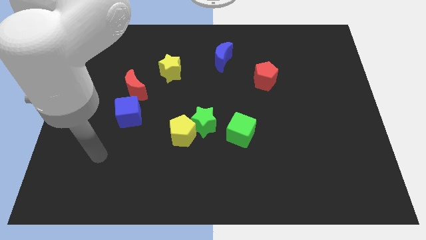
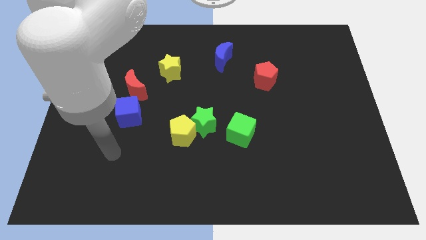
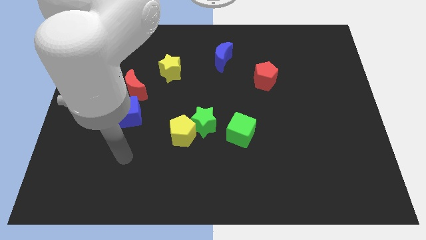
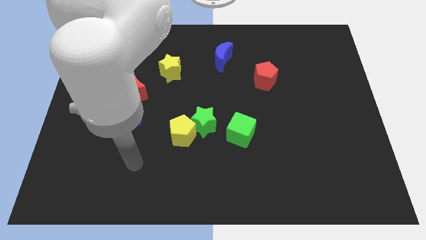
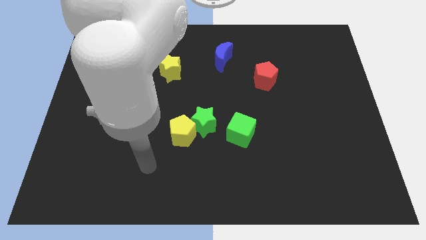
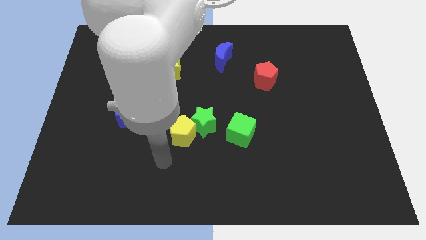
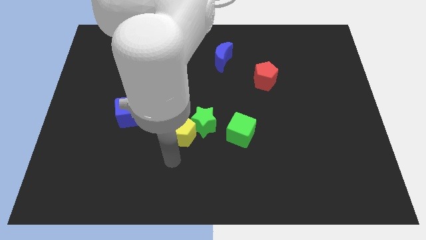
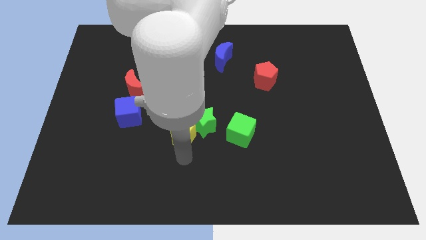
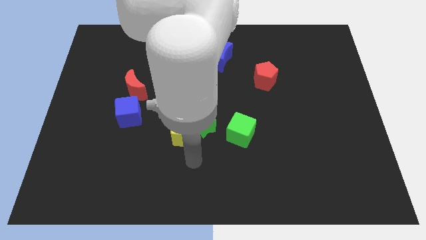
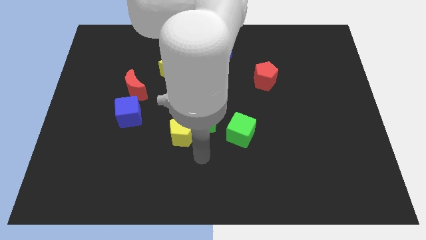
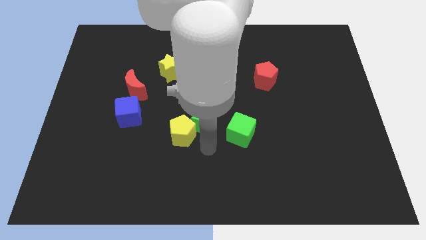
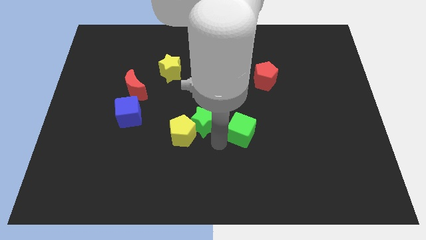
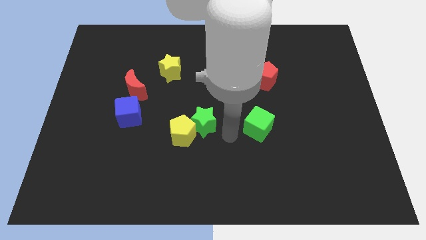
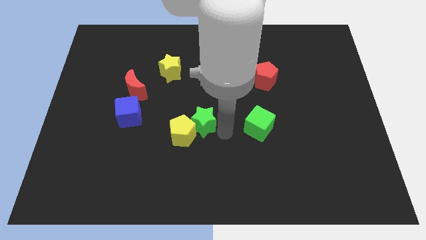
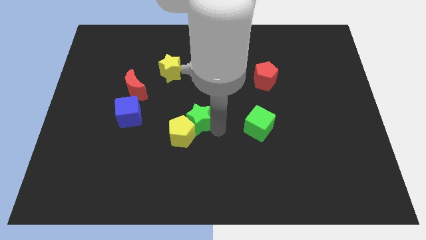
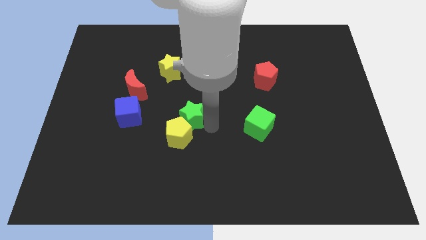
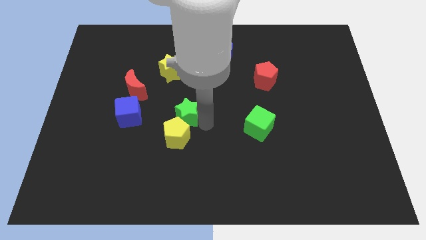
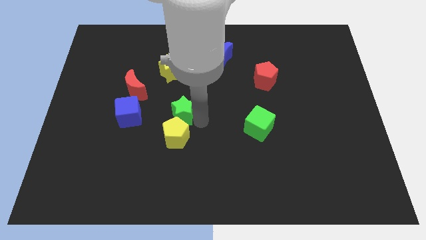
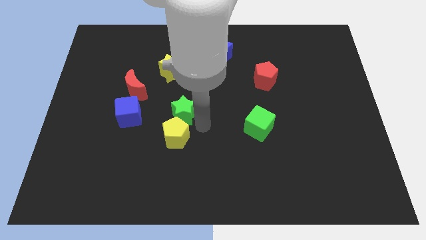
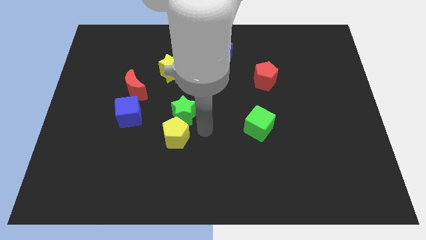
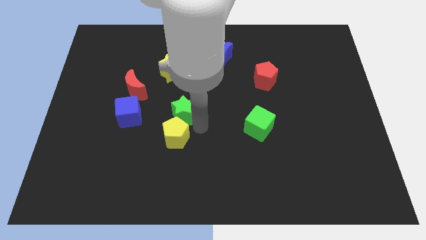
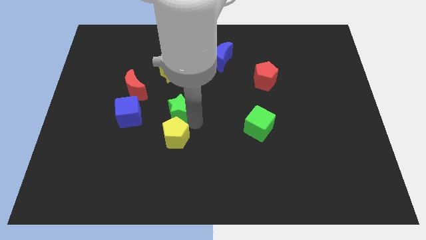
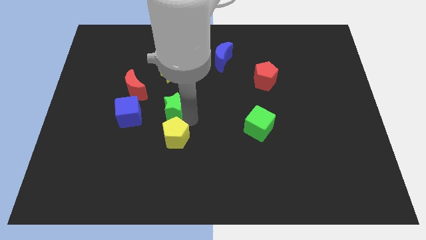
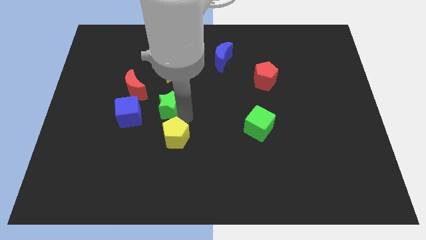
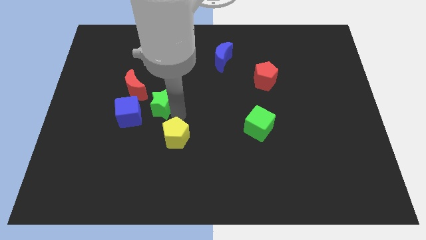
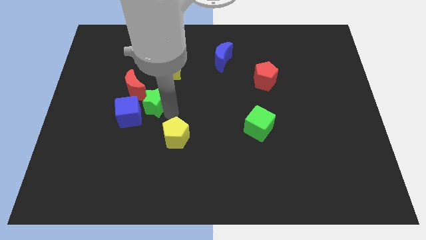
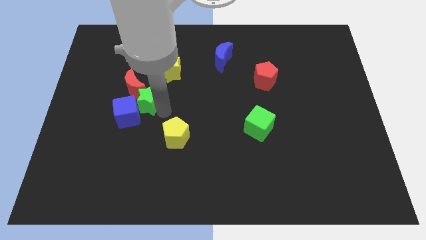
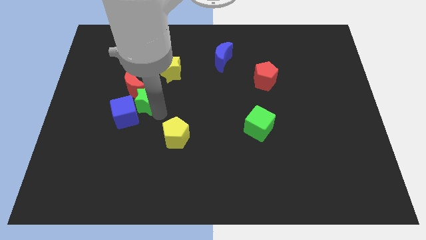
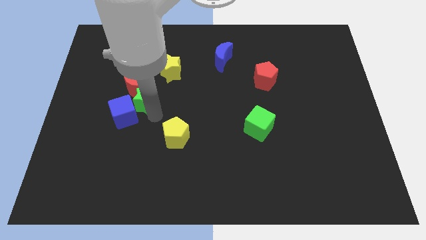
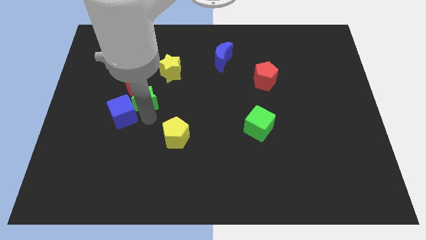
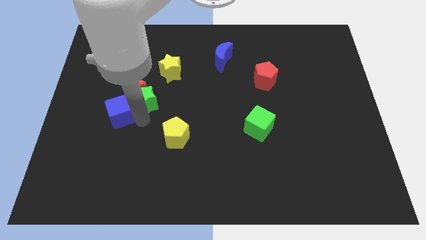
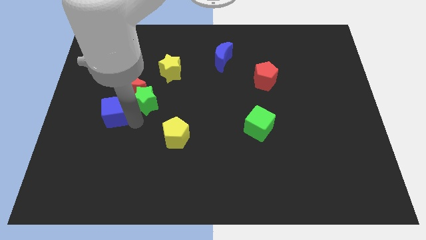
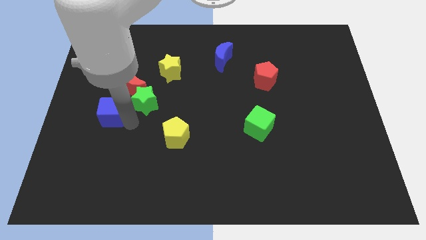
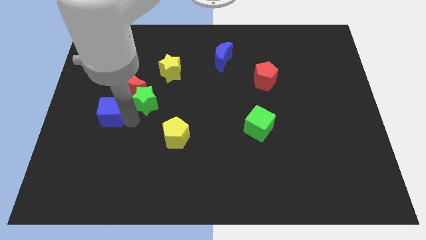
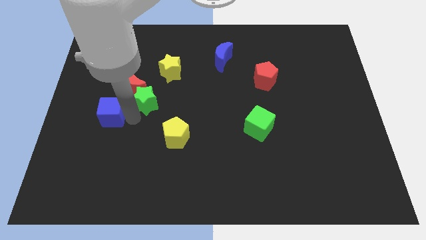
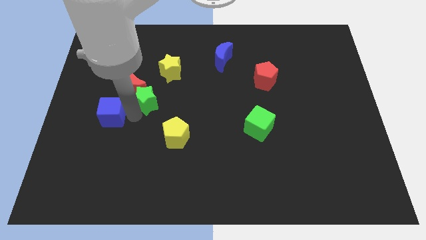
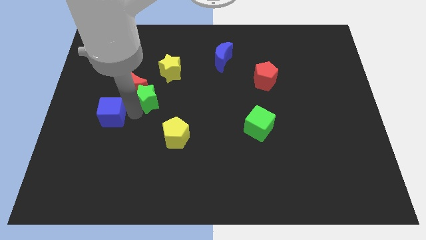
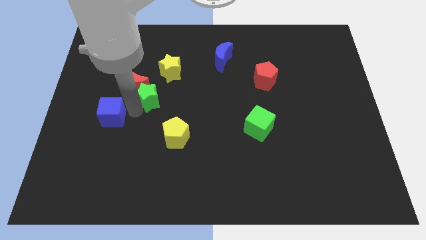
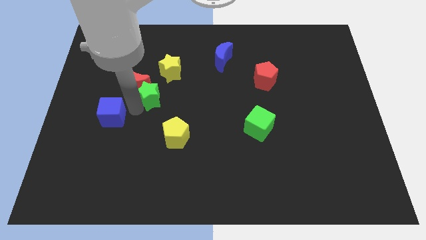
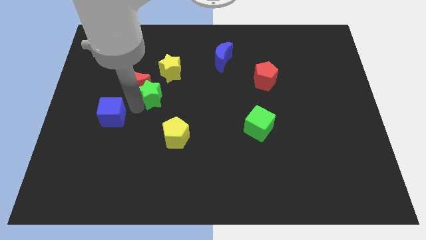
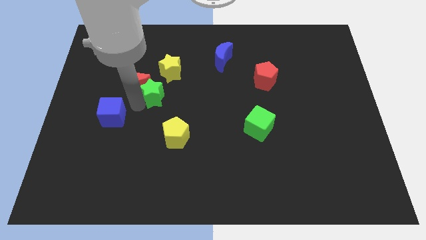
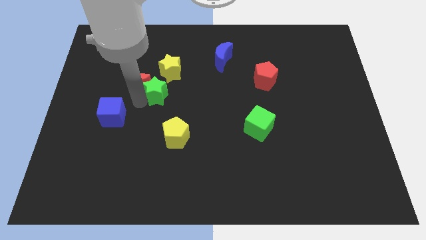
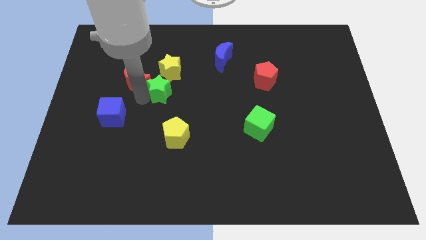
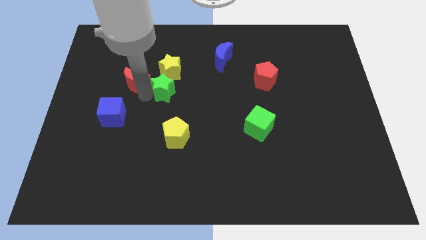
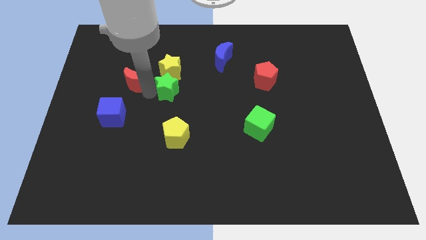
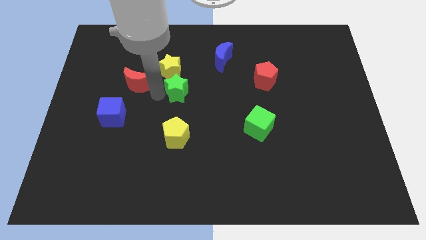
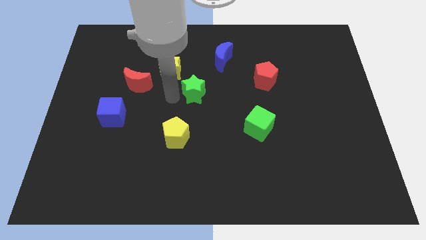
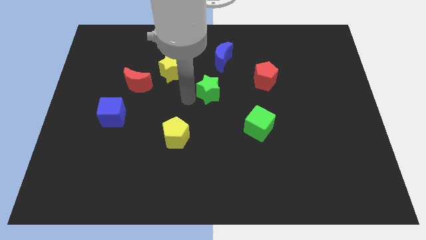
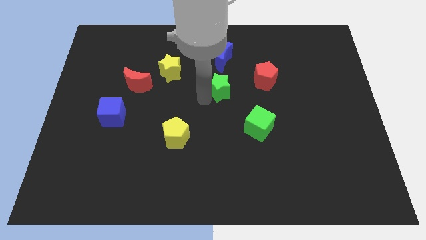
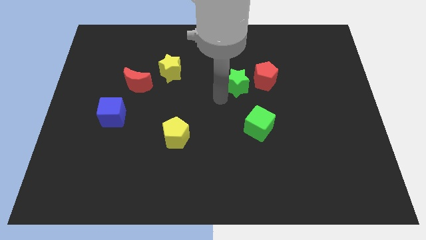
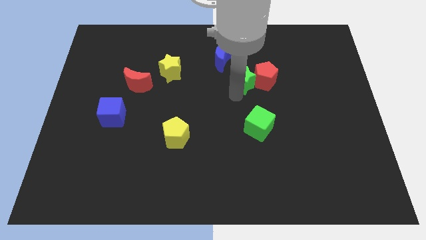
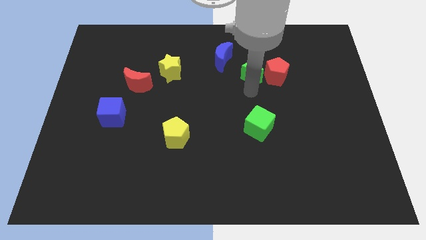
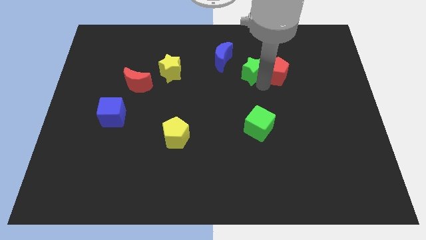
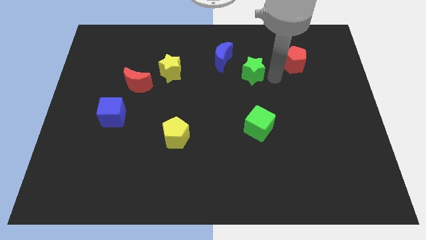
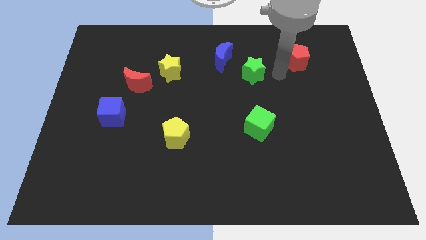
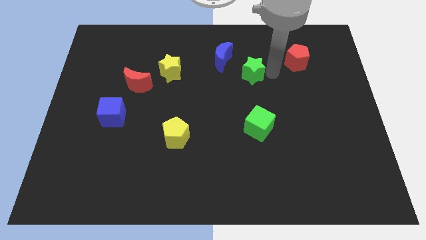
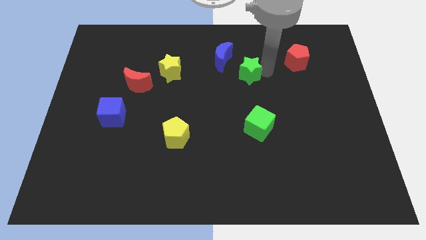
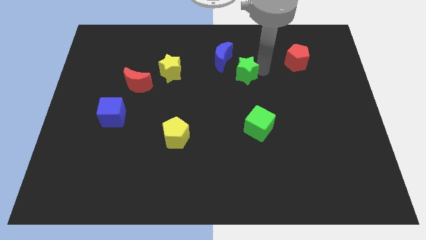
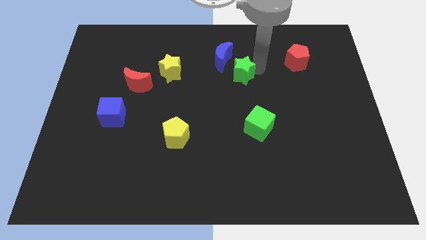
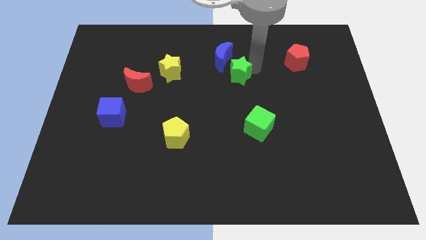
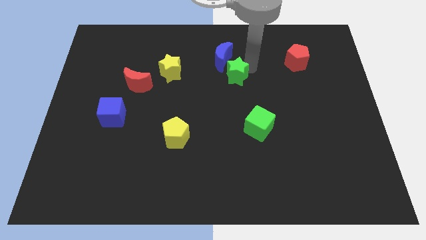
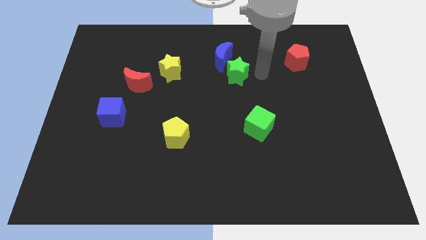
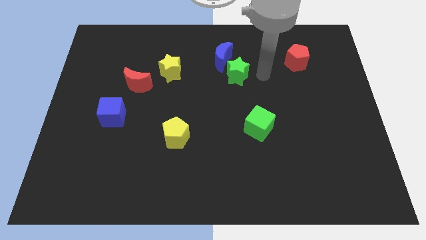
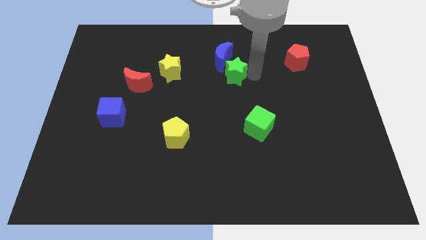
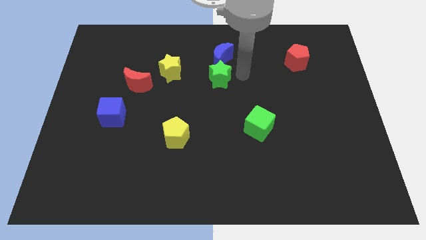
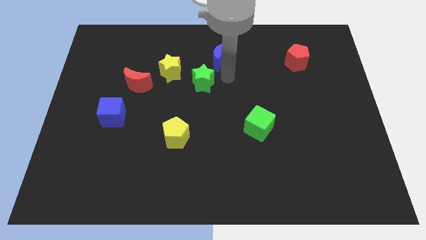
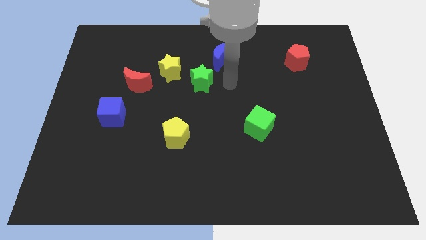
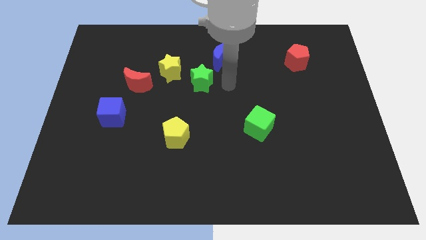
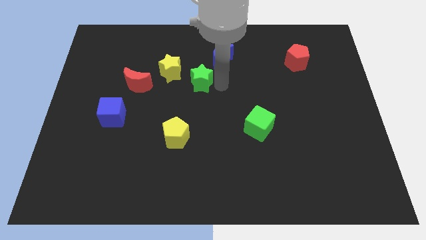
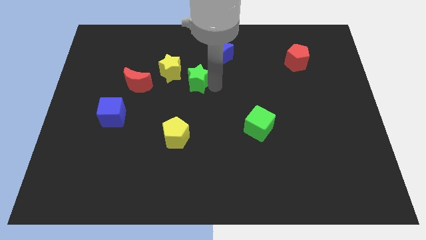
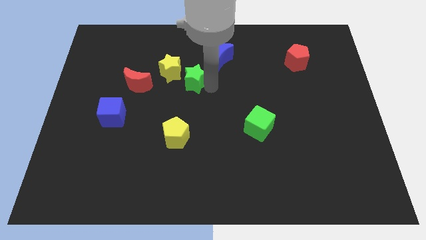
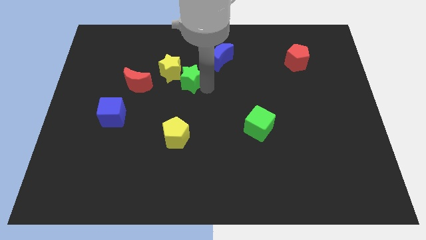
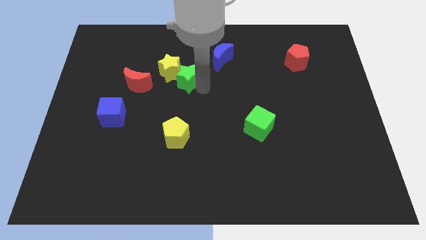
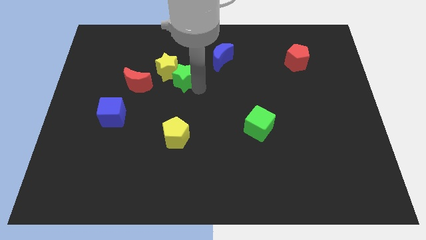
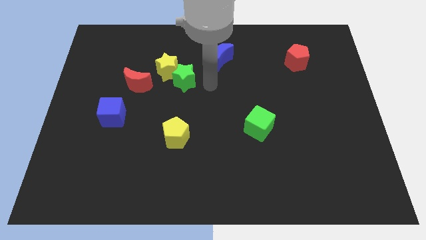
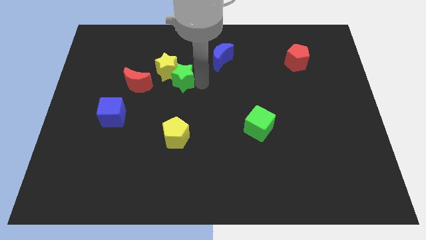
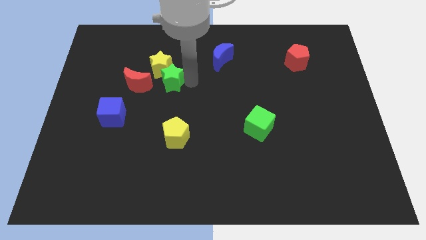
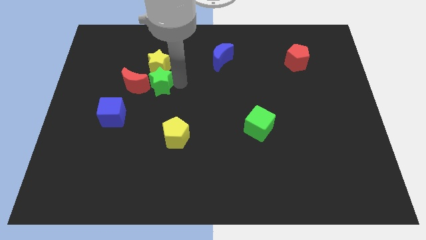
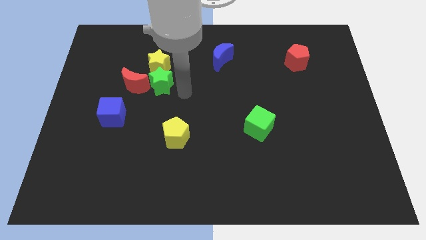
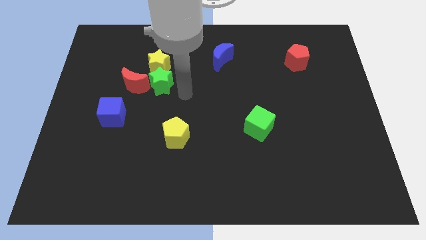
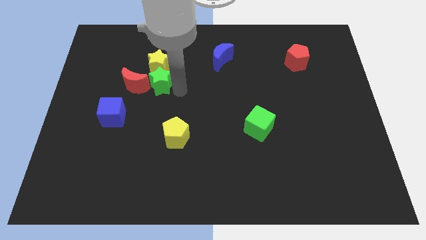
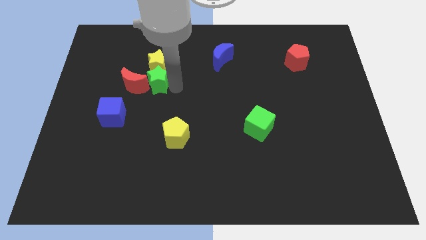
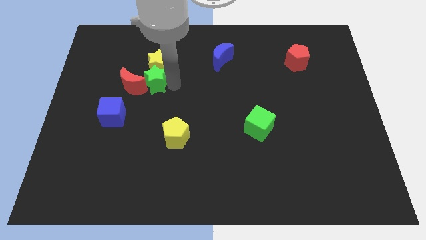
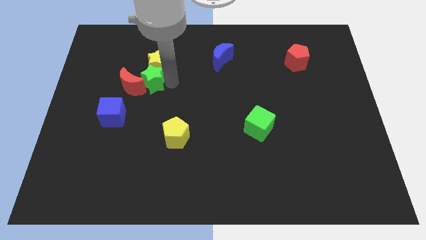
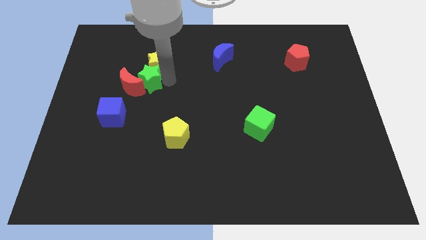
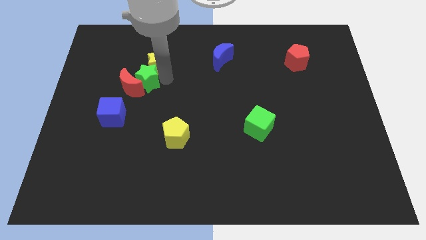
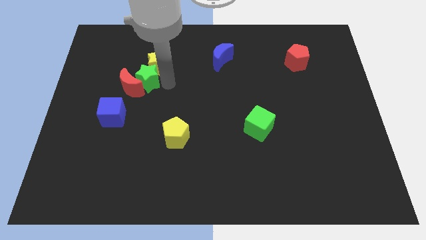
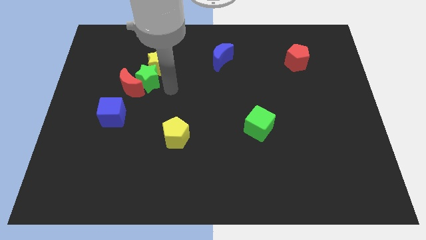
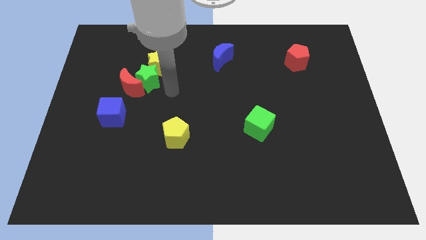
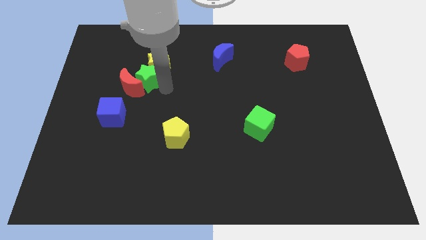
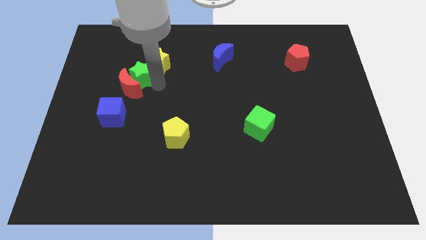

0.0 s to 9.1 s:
slide the green star just left of the yellow star
